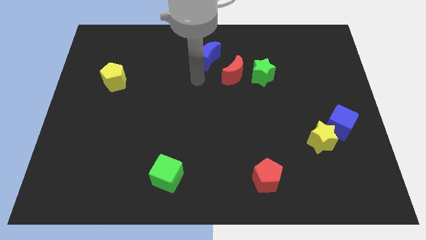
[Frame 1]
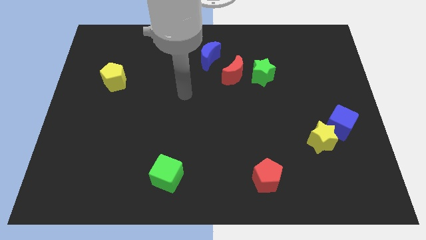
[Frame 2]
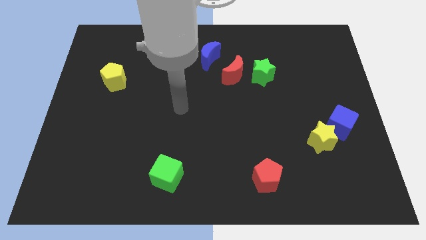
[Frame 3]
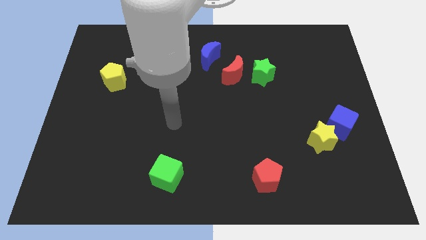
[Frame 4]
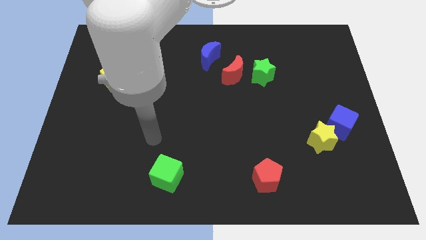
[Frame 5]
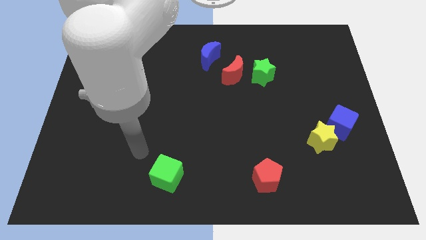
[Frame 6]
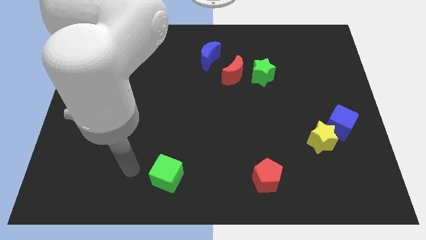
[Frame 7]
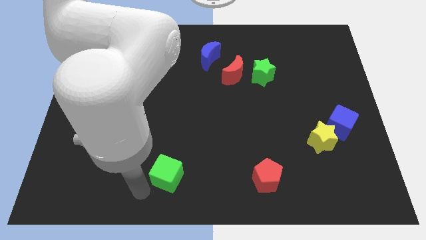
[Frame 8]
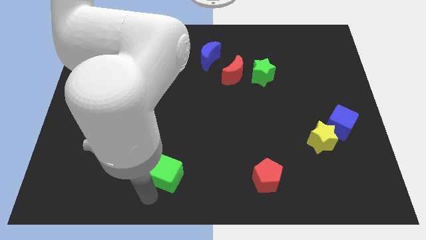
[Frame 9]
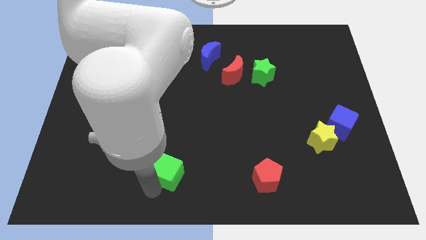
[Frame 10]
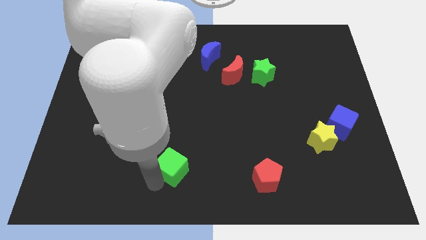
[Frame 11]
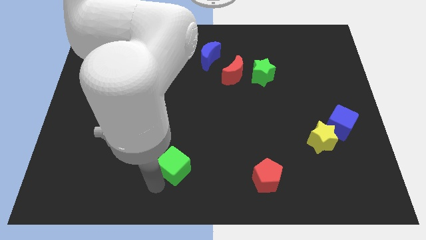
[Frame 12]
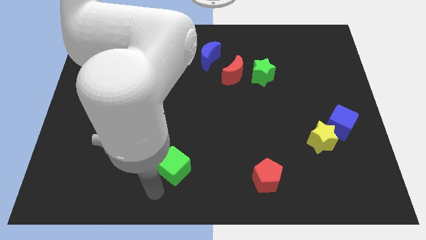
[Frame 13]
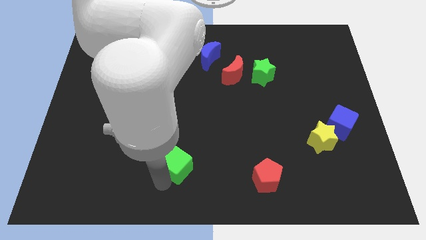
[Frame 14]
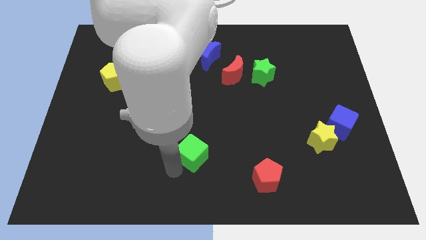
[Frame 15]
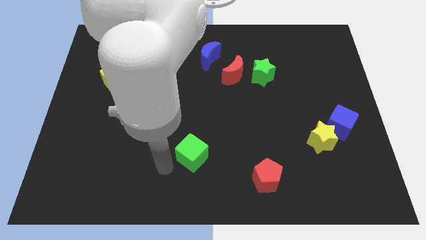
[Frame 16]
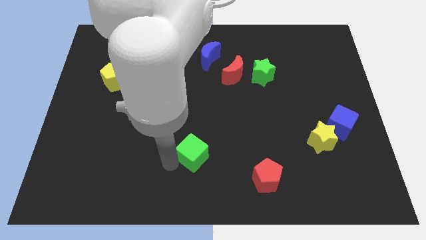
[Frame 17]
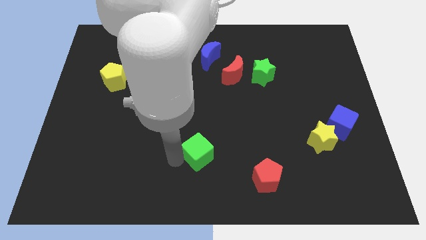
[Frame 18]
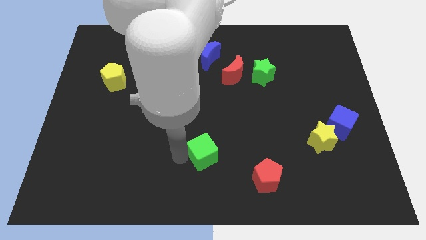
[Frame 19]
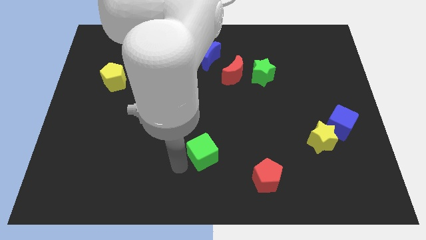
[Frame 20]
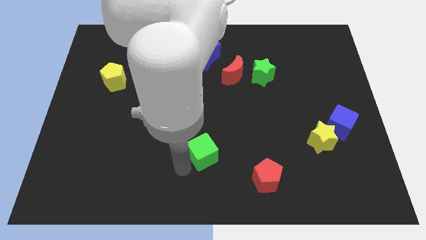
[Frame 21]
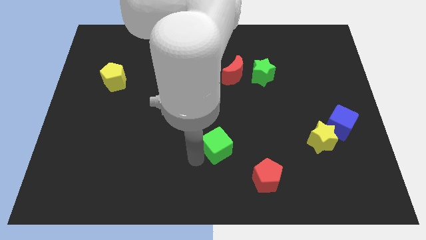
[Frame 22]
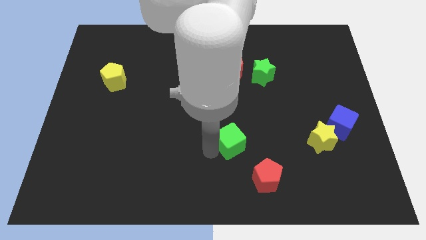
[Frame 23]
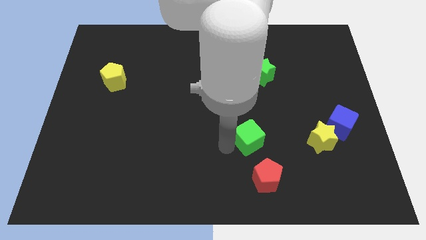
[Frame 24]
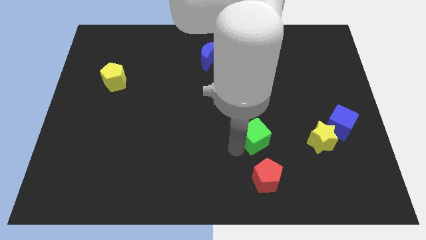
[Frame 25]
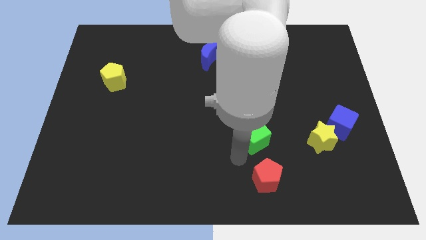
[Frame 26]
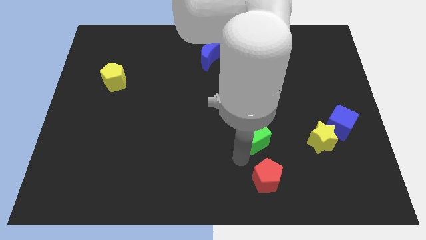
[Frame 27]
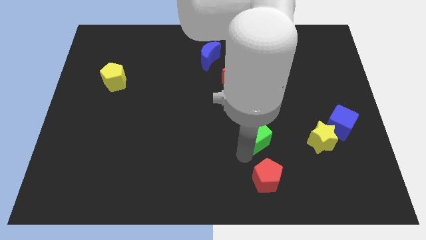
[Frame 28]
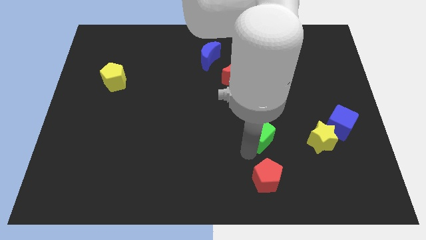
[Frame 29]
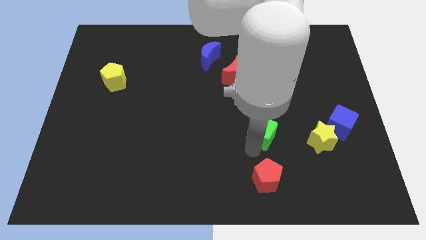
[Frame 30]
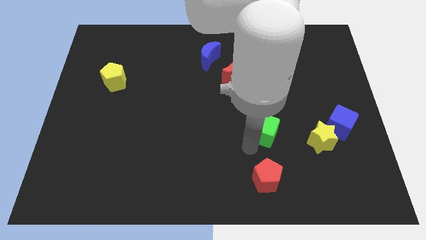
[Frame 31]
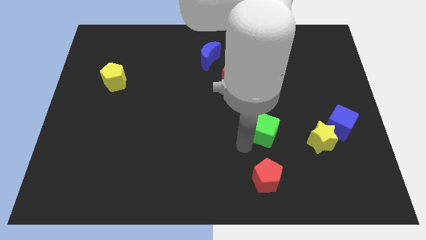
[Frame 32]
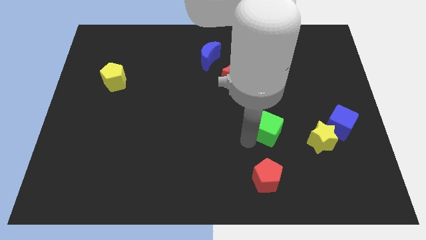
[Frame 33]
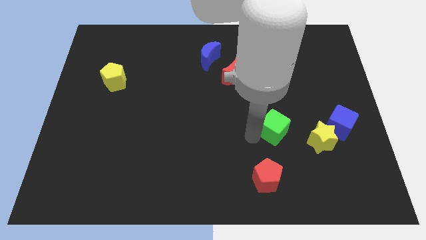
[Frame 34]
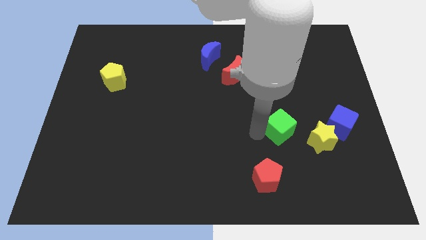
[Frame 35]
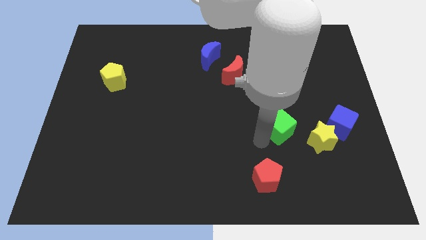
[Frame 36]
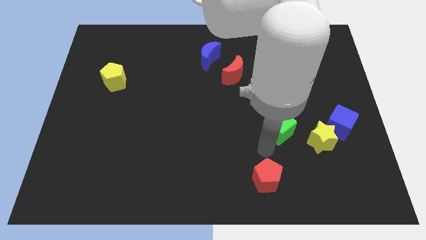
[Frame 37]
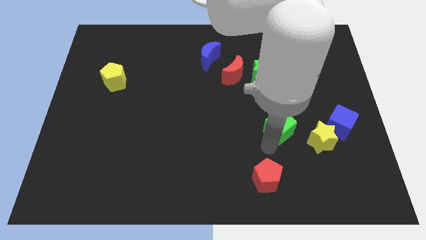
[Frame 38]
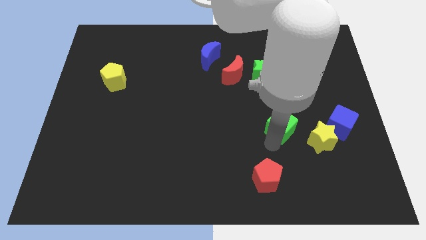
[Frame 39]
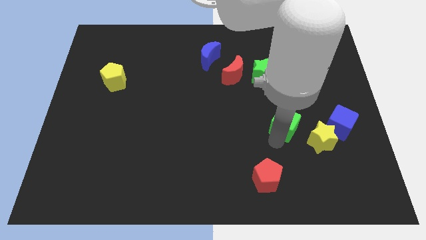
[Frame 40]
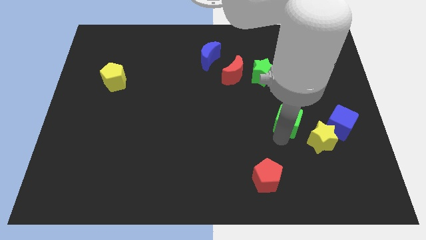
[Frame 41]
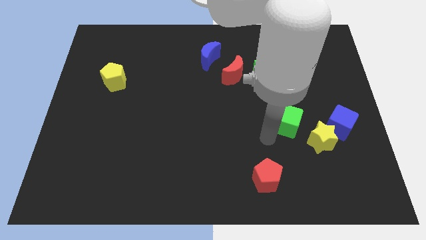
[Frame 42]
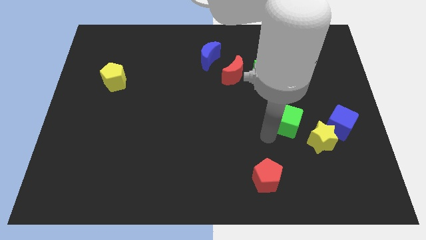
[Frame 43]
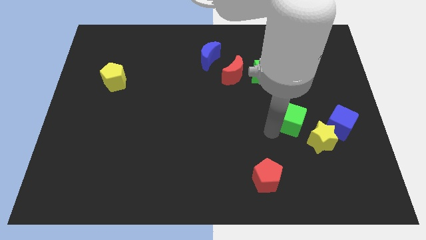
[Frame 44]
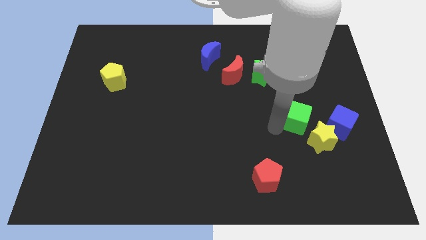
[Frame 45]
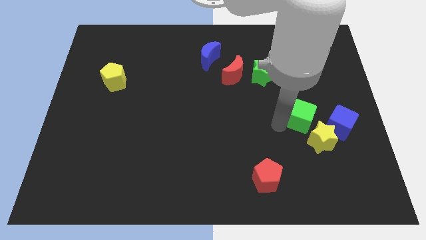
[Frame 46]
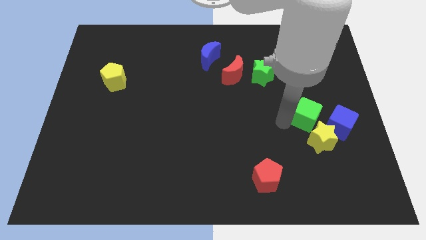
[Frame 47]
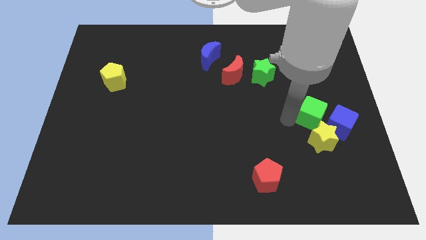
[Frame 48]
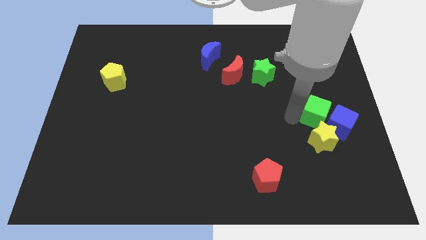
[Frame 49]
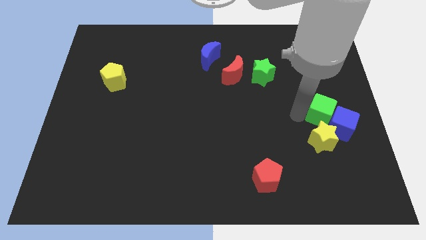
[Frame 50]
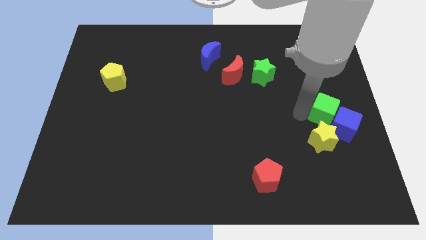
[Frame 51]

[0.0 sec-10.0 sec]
put the green cube to the center right

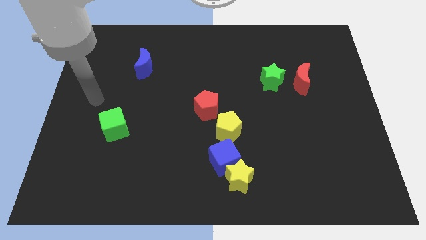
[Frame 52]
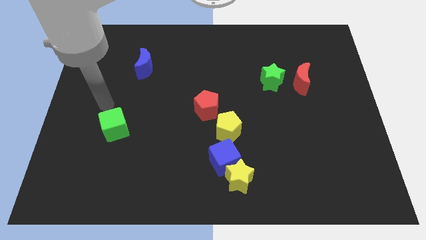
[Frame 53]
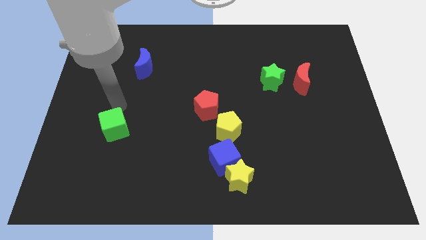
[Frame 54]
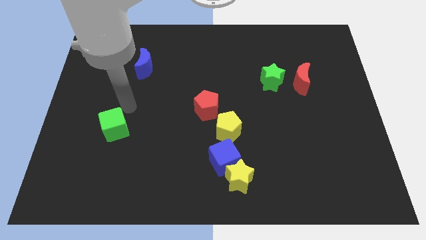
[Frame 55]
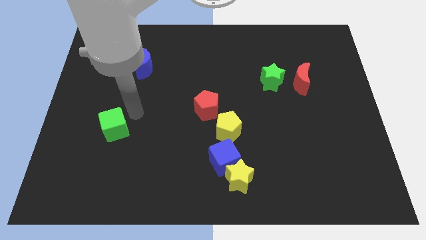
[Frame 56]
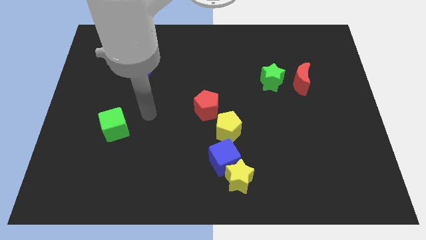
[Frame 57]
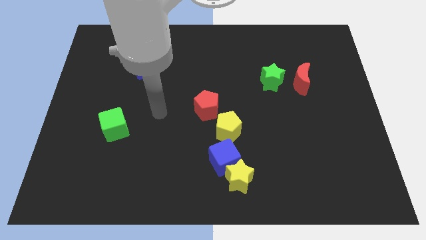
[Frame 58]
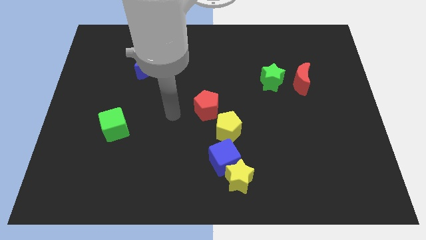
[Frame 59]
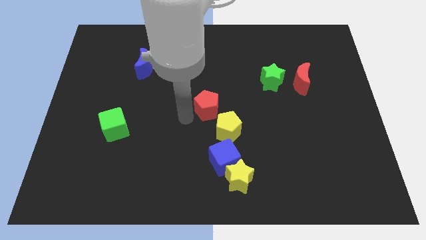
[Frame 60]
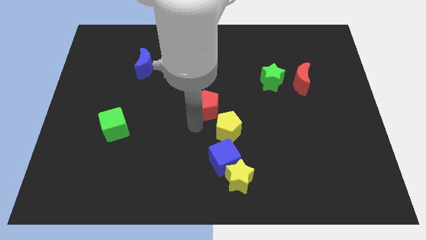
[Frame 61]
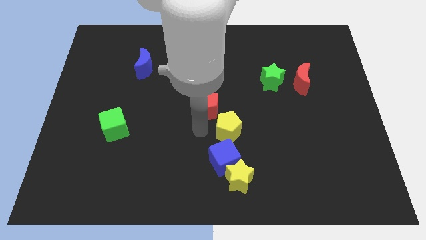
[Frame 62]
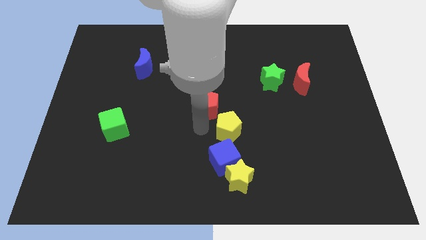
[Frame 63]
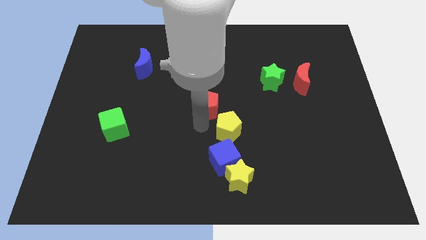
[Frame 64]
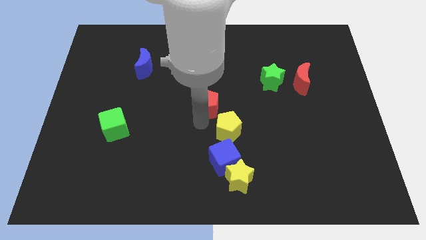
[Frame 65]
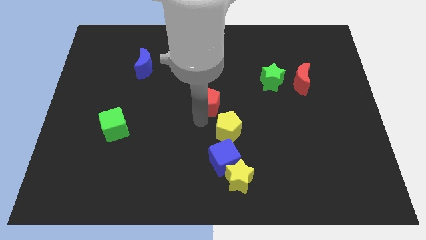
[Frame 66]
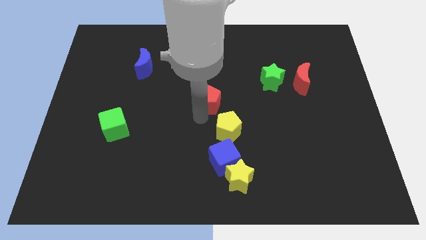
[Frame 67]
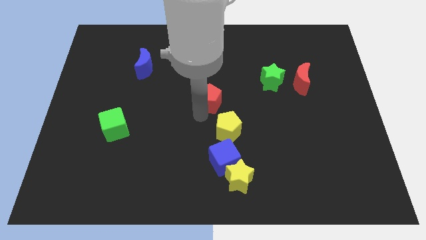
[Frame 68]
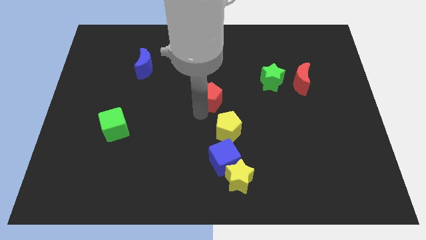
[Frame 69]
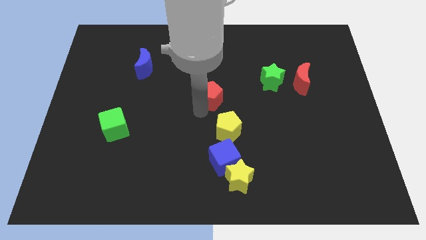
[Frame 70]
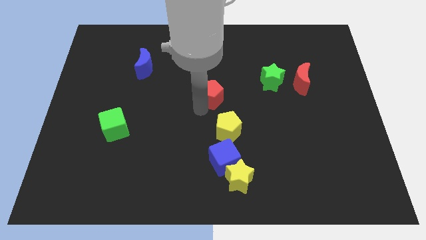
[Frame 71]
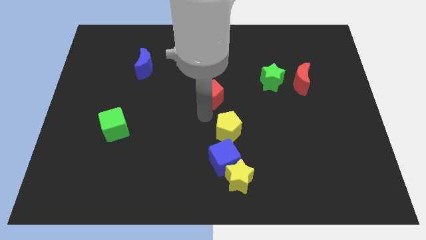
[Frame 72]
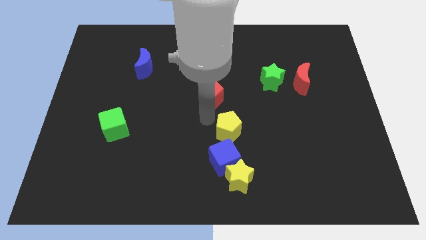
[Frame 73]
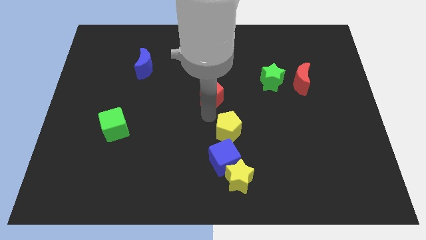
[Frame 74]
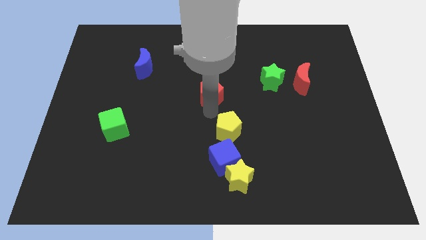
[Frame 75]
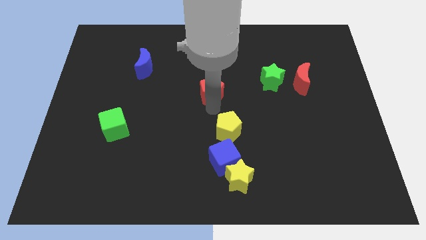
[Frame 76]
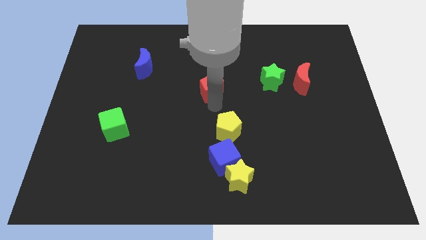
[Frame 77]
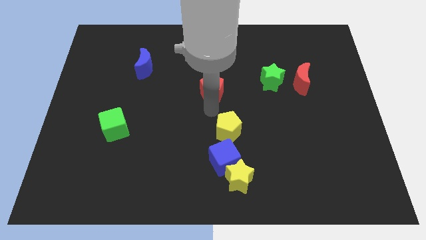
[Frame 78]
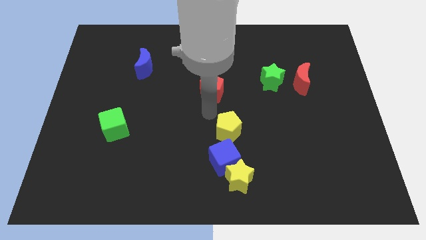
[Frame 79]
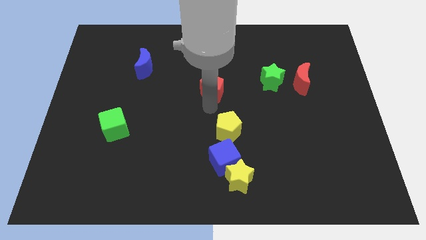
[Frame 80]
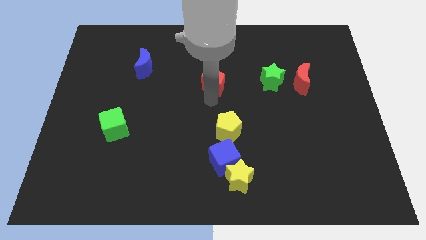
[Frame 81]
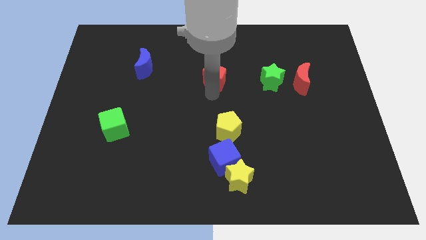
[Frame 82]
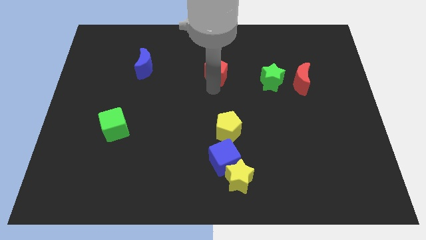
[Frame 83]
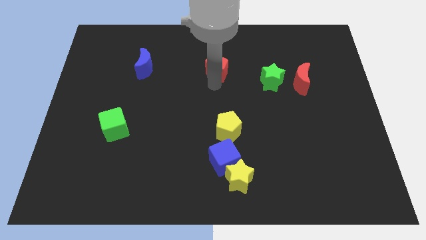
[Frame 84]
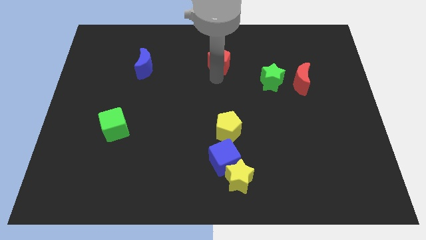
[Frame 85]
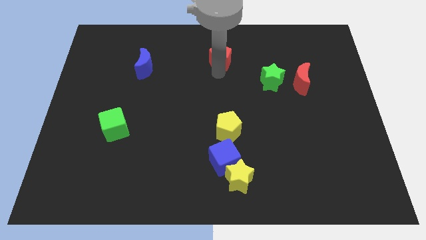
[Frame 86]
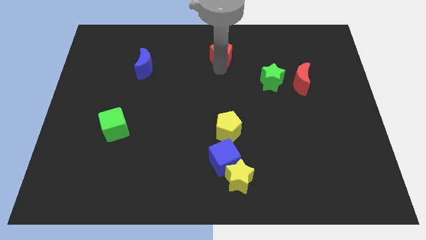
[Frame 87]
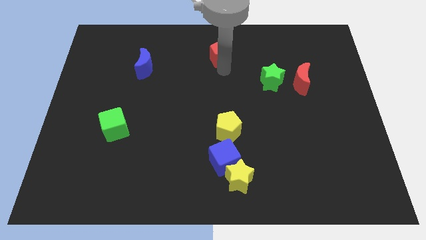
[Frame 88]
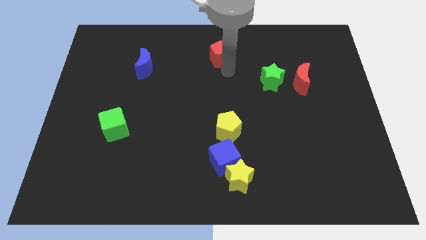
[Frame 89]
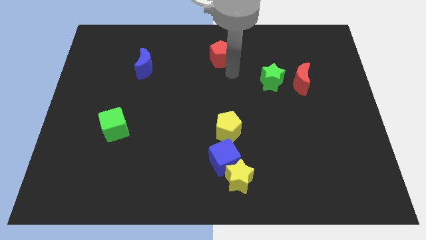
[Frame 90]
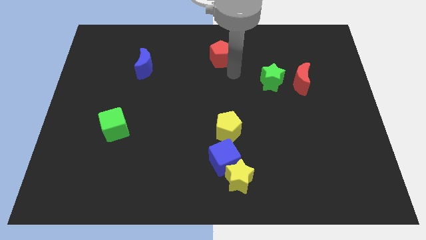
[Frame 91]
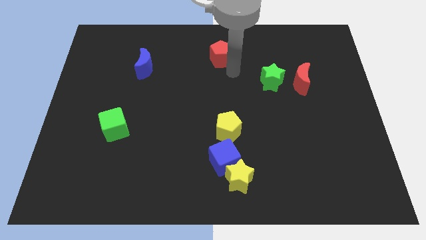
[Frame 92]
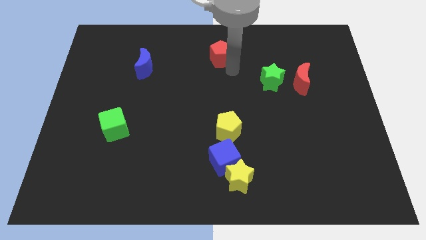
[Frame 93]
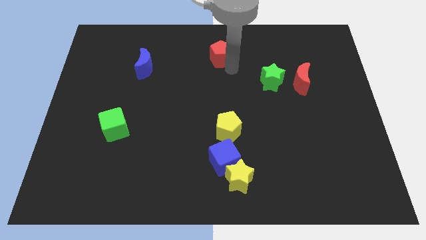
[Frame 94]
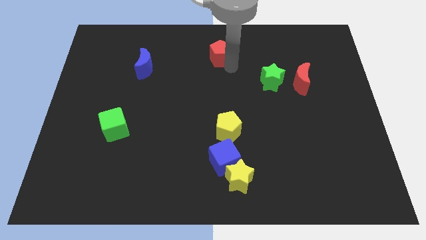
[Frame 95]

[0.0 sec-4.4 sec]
slide the red pentagon to the top
